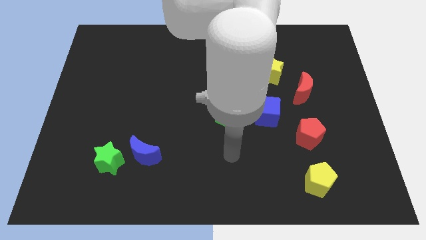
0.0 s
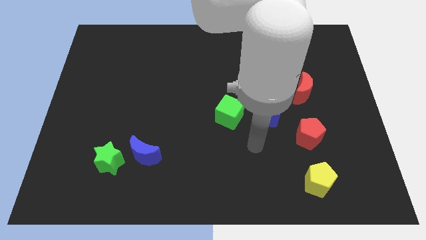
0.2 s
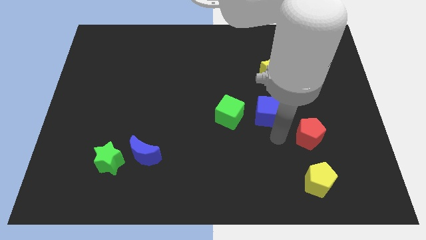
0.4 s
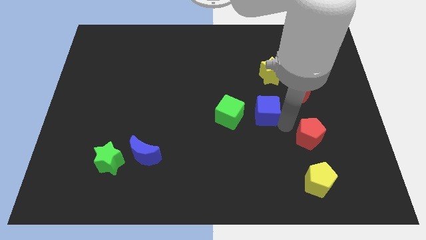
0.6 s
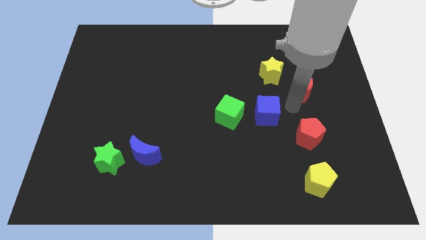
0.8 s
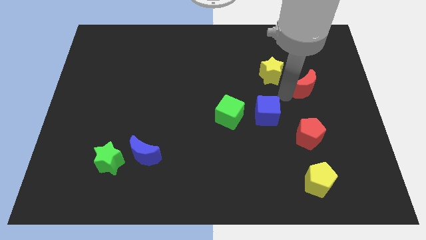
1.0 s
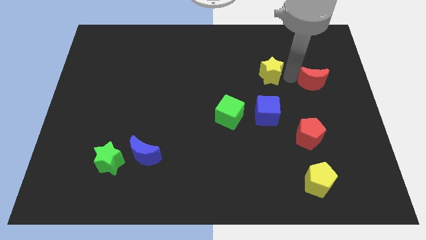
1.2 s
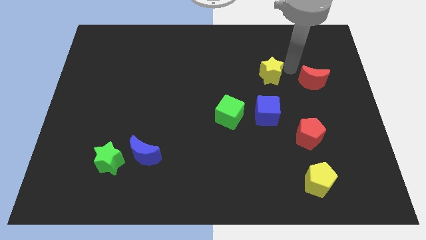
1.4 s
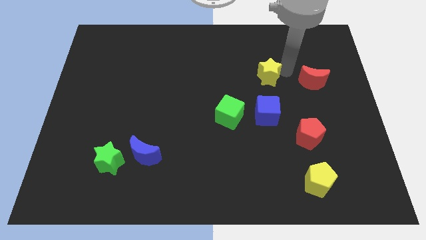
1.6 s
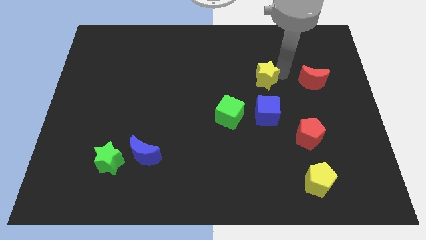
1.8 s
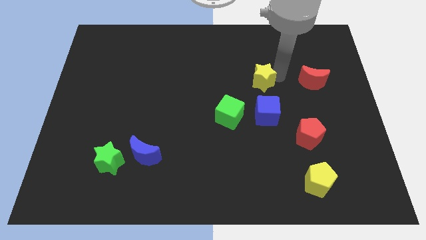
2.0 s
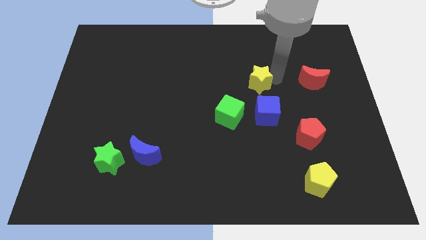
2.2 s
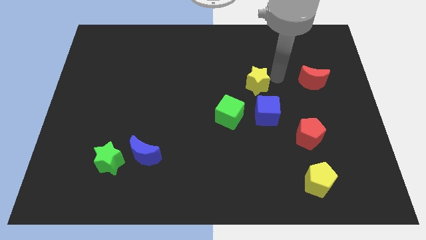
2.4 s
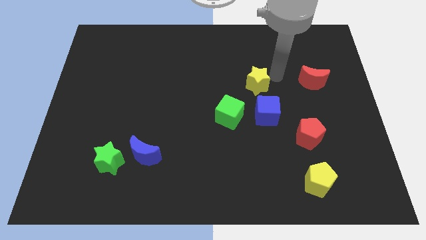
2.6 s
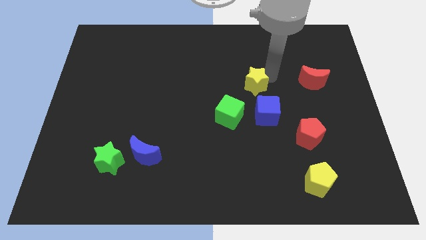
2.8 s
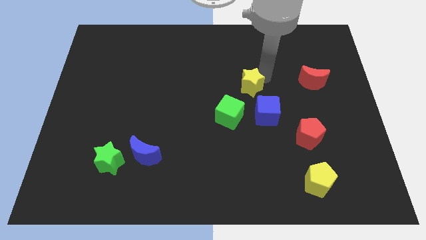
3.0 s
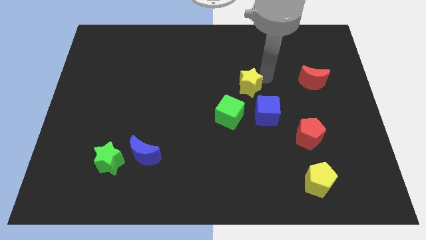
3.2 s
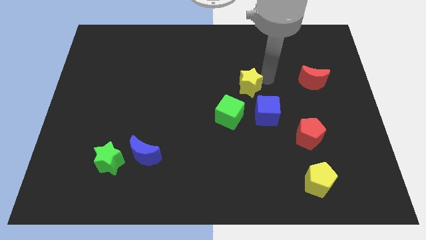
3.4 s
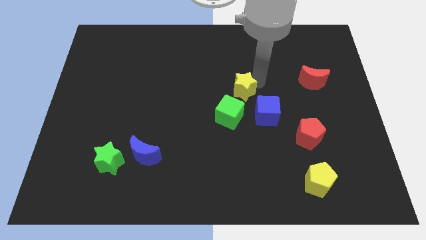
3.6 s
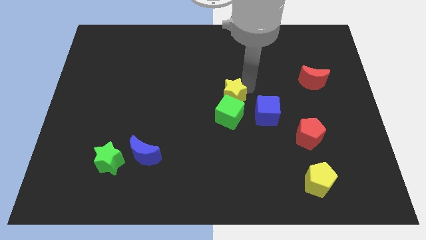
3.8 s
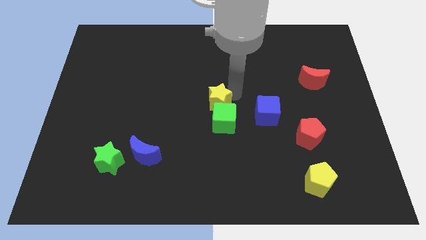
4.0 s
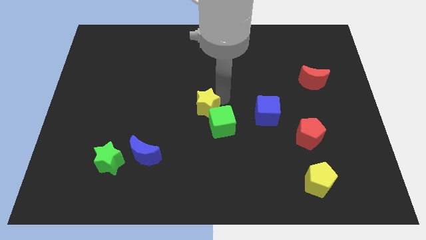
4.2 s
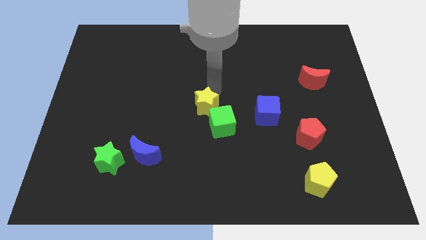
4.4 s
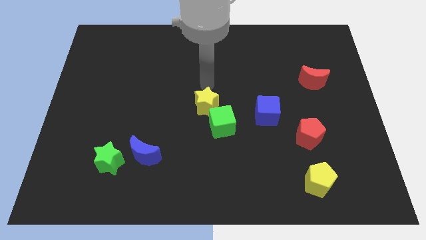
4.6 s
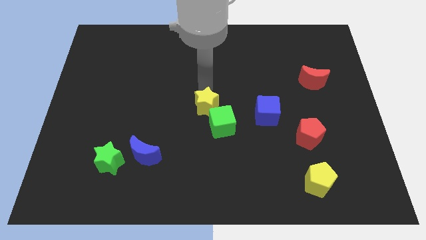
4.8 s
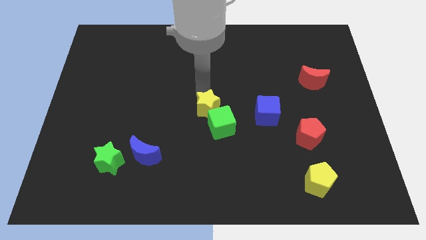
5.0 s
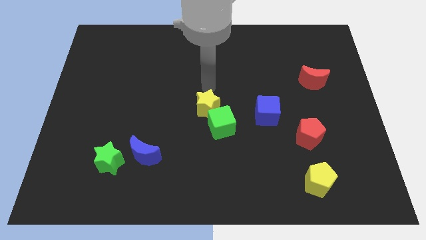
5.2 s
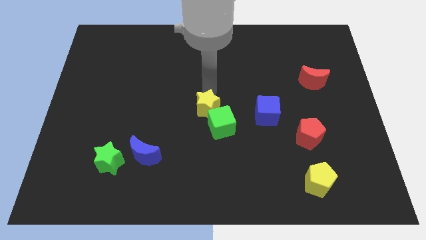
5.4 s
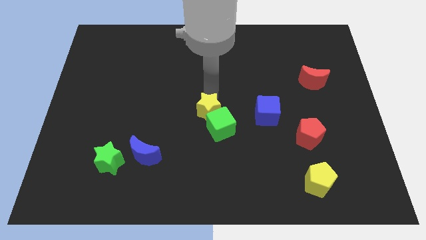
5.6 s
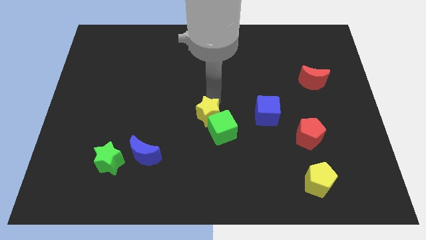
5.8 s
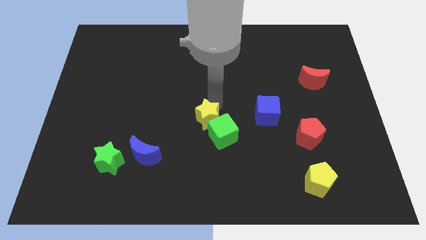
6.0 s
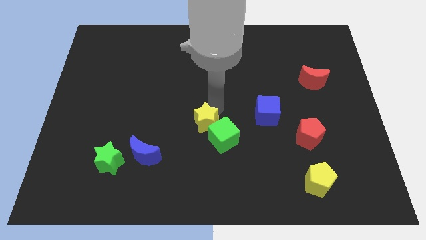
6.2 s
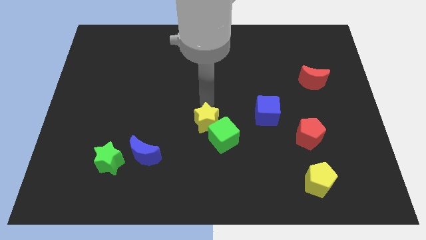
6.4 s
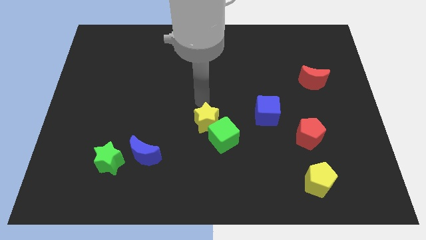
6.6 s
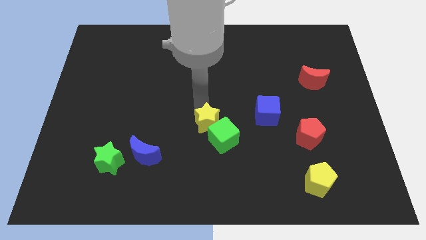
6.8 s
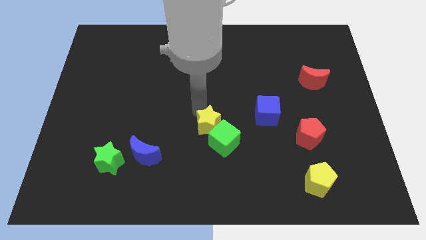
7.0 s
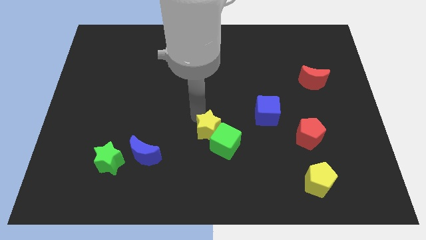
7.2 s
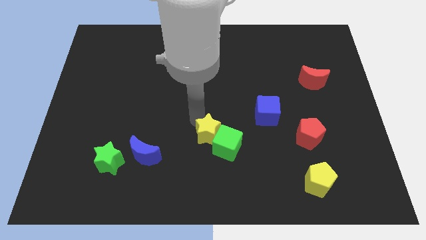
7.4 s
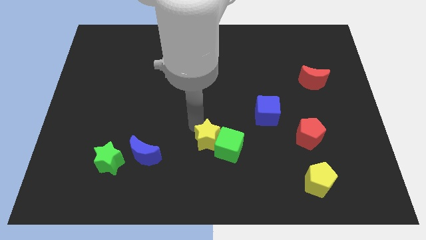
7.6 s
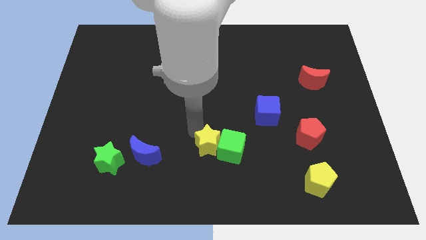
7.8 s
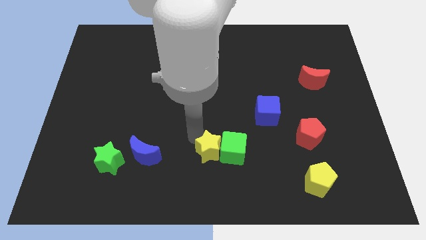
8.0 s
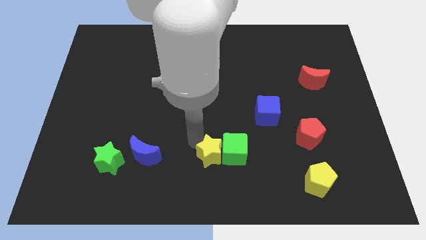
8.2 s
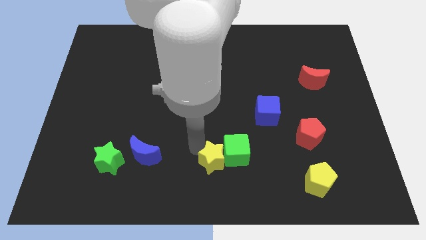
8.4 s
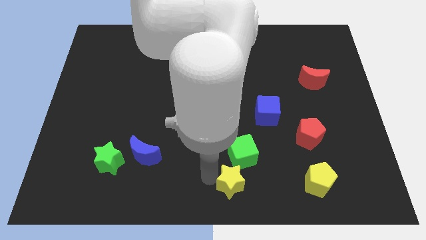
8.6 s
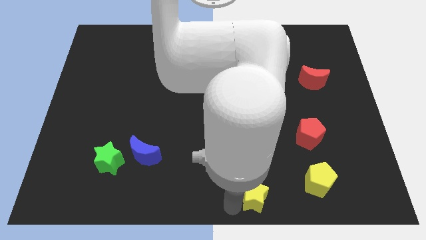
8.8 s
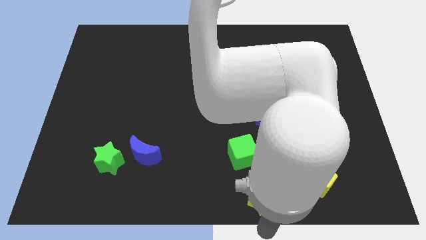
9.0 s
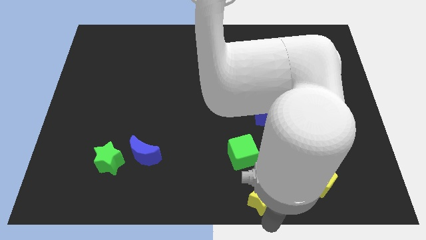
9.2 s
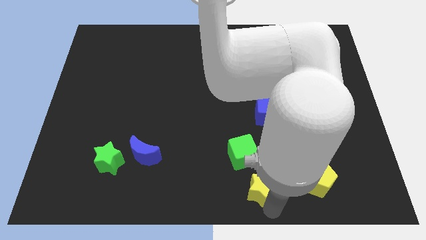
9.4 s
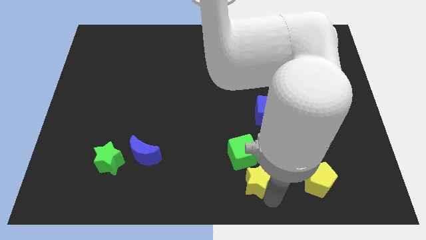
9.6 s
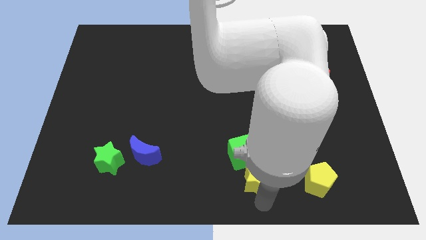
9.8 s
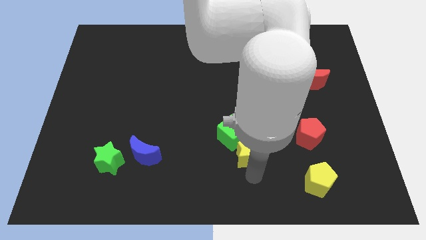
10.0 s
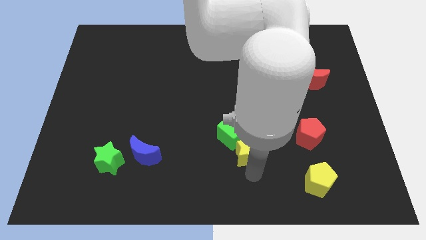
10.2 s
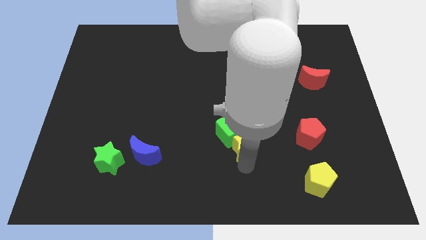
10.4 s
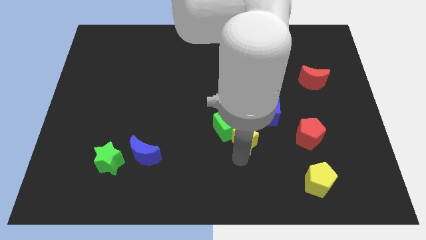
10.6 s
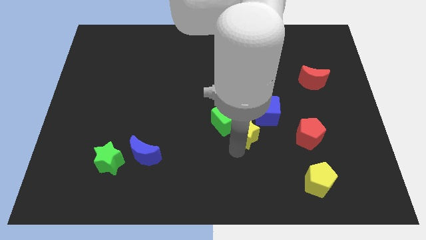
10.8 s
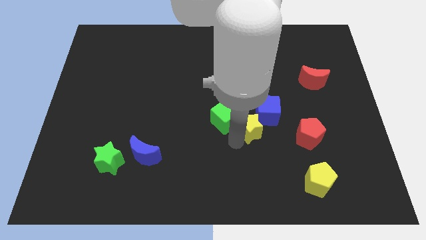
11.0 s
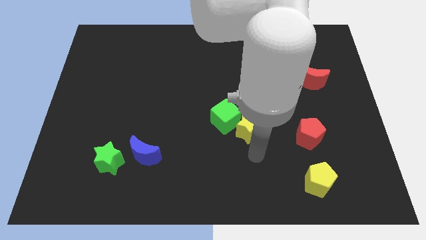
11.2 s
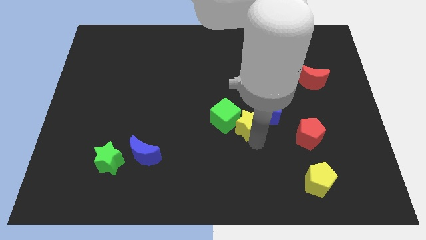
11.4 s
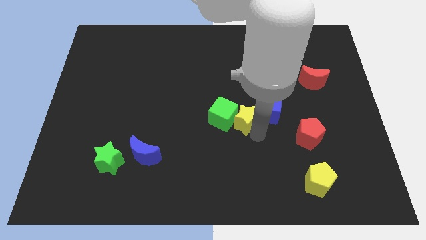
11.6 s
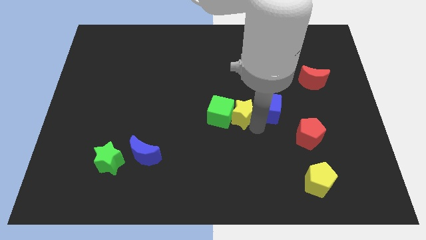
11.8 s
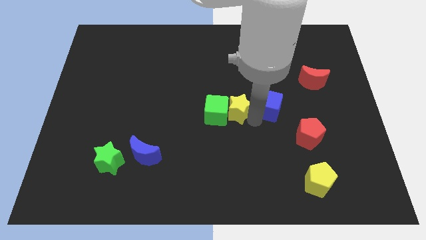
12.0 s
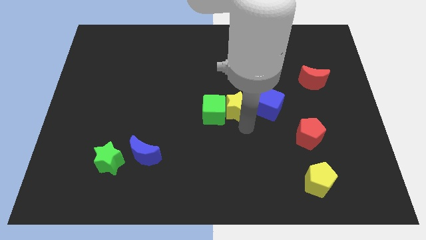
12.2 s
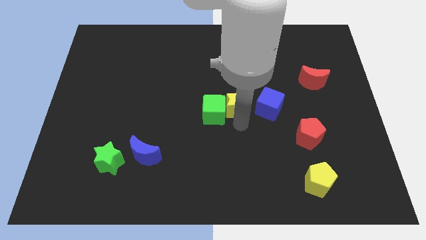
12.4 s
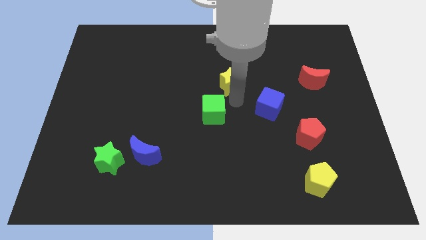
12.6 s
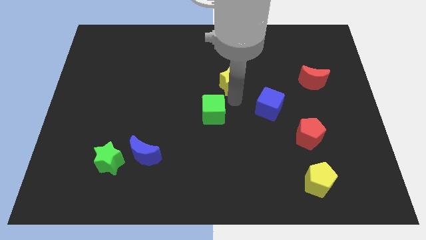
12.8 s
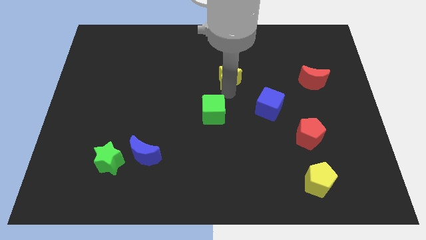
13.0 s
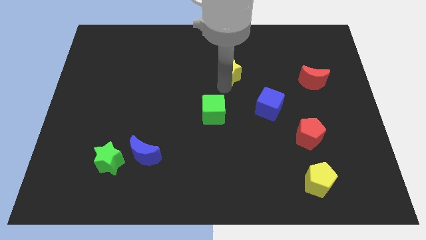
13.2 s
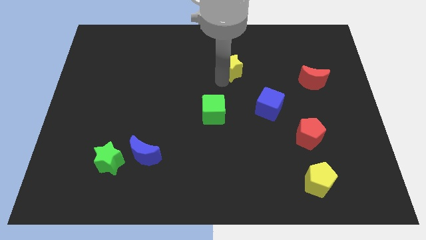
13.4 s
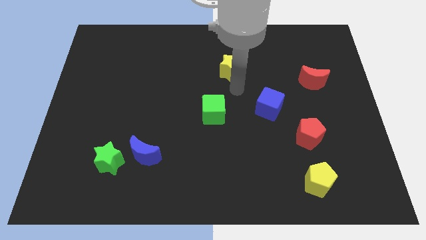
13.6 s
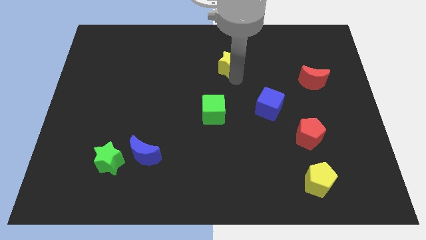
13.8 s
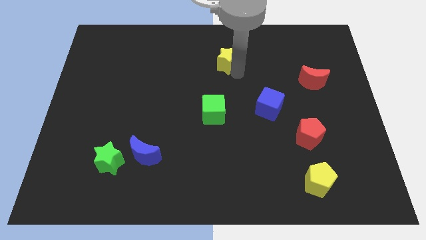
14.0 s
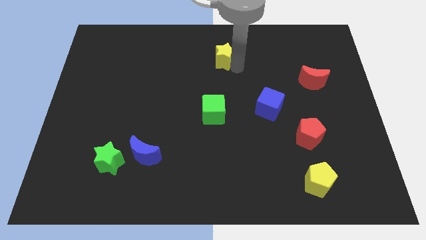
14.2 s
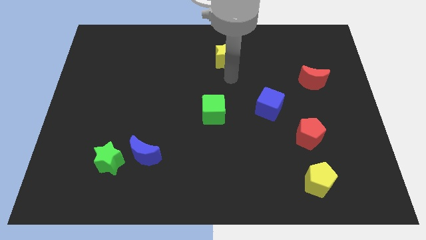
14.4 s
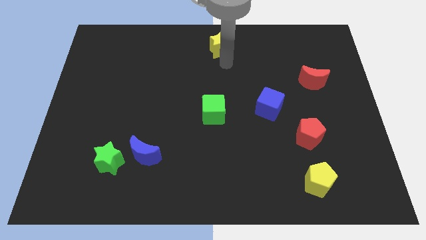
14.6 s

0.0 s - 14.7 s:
move the yellow star to the towards your base
